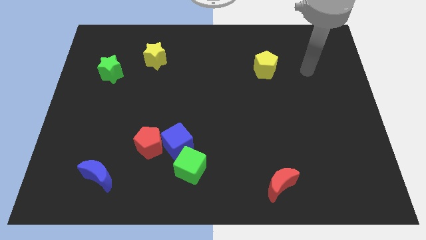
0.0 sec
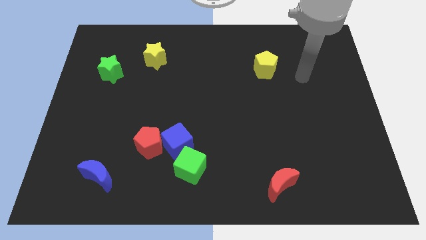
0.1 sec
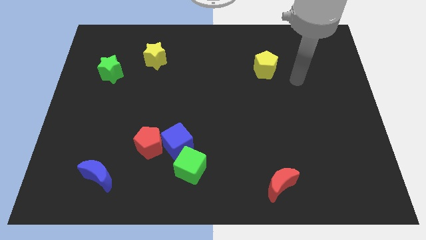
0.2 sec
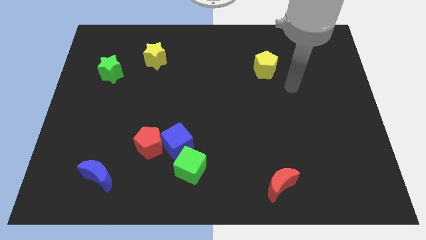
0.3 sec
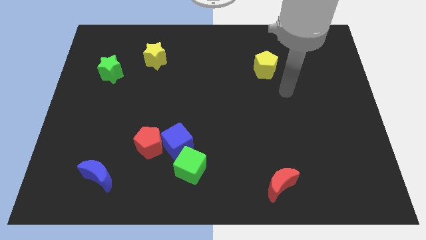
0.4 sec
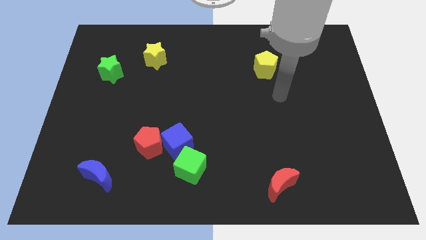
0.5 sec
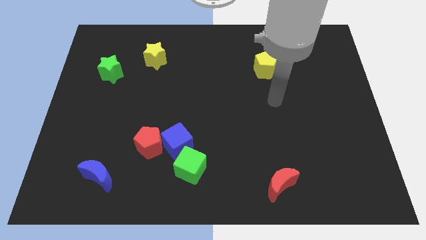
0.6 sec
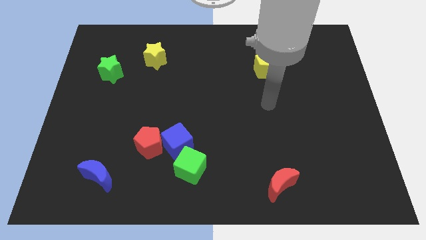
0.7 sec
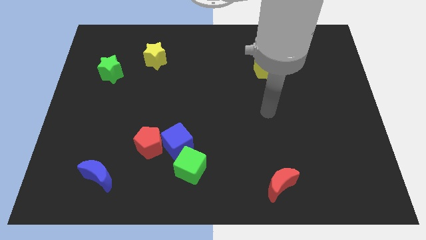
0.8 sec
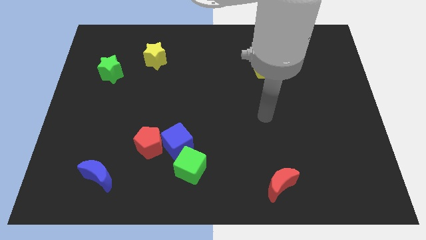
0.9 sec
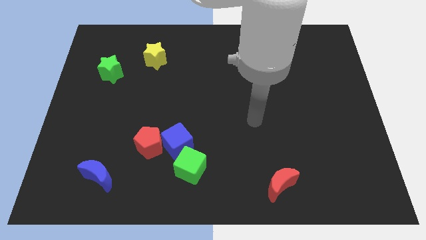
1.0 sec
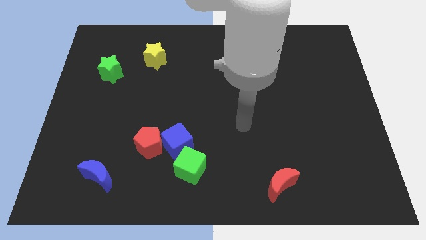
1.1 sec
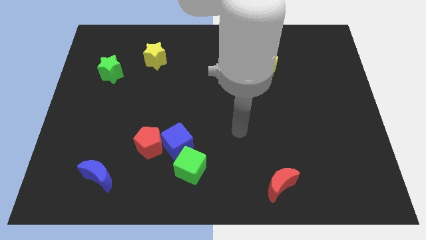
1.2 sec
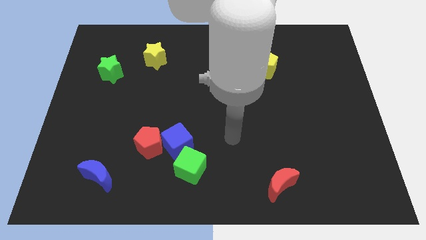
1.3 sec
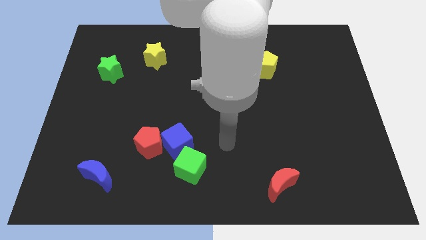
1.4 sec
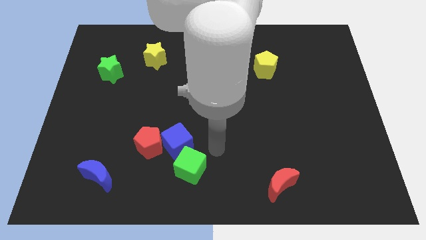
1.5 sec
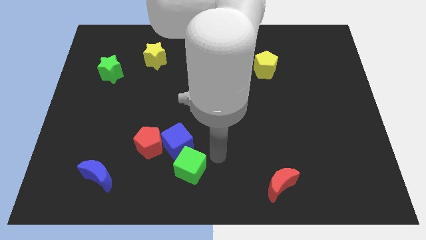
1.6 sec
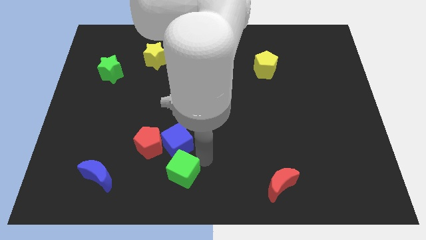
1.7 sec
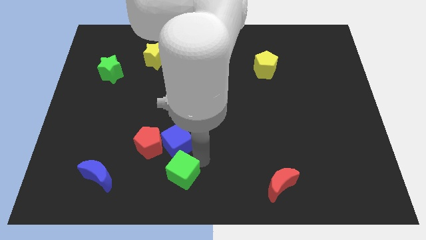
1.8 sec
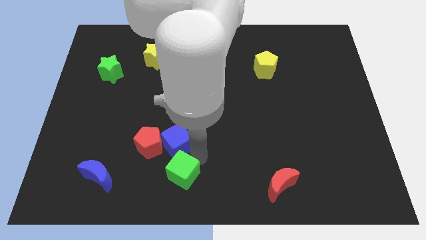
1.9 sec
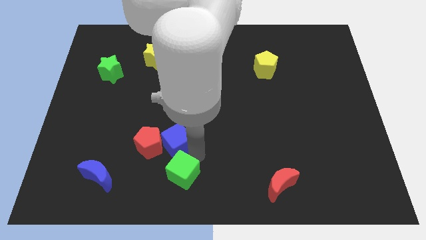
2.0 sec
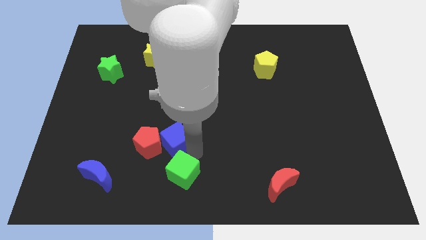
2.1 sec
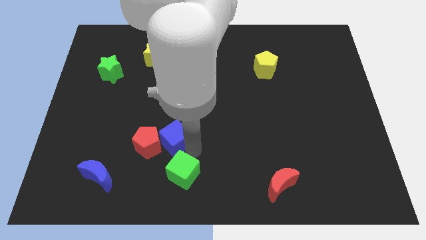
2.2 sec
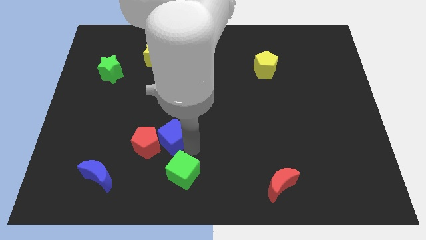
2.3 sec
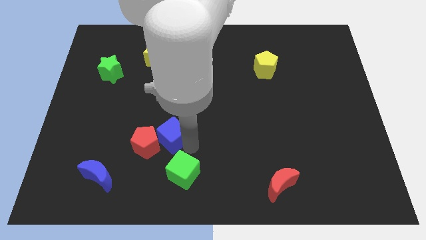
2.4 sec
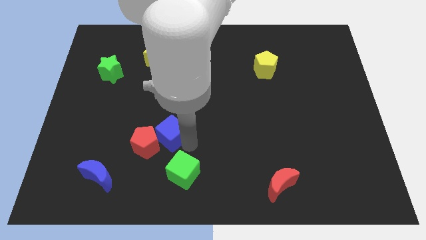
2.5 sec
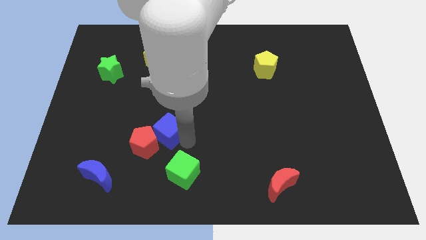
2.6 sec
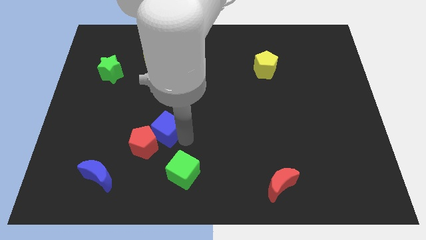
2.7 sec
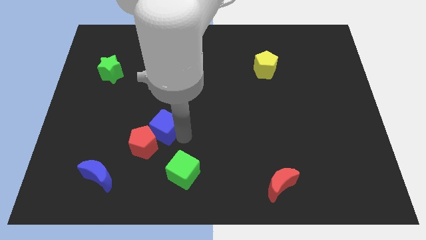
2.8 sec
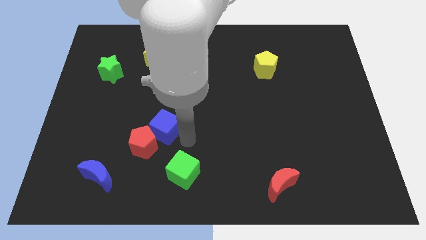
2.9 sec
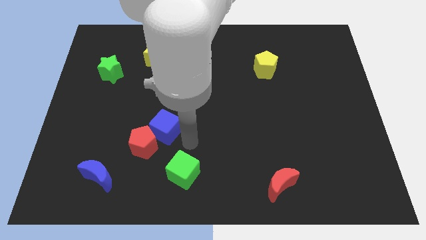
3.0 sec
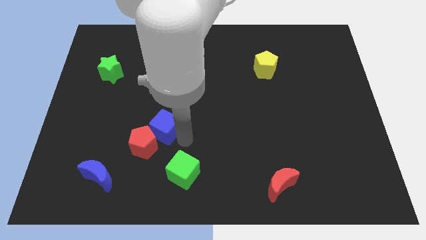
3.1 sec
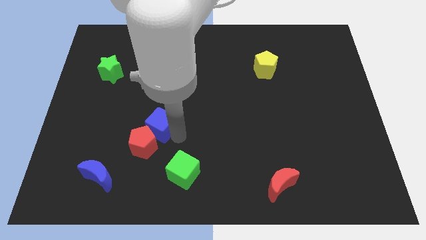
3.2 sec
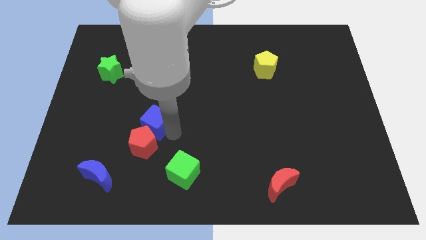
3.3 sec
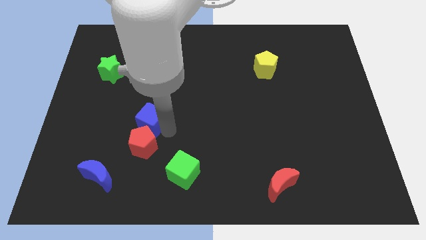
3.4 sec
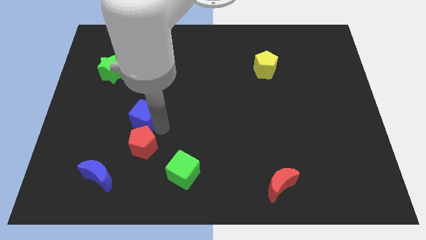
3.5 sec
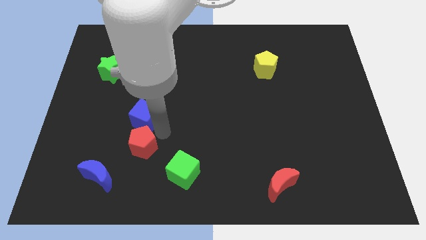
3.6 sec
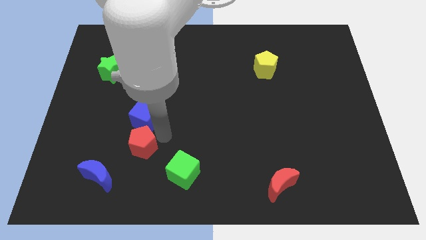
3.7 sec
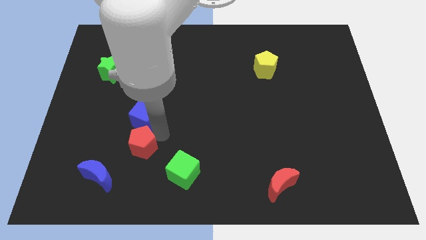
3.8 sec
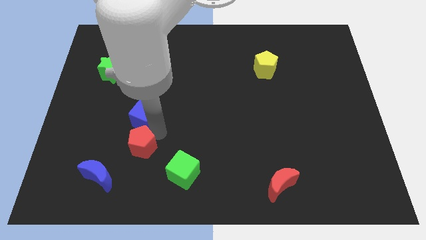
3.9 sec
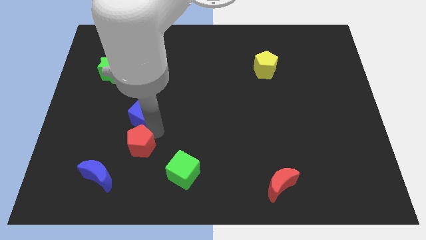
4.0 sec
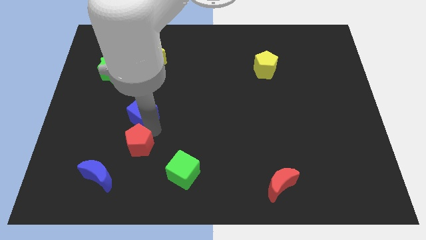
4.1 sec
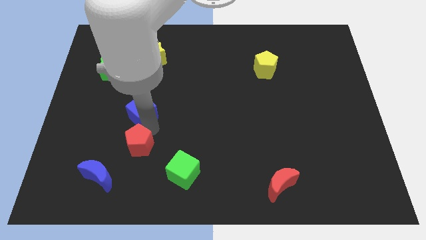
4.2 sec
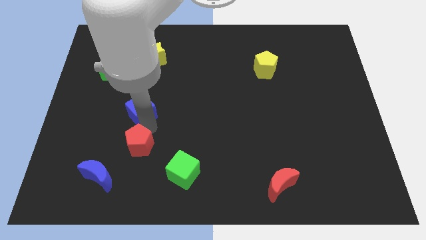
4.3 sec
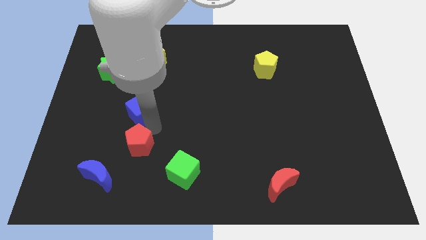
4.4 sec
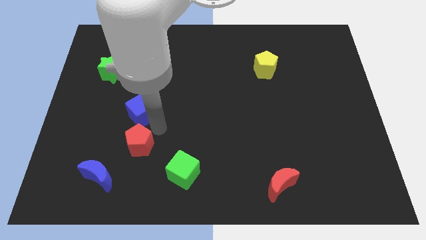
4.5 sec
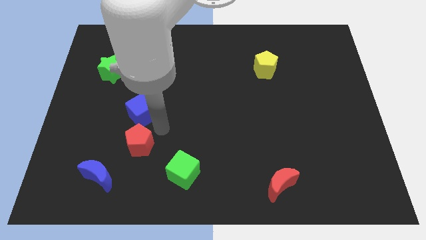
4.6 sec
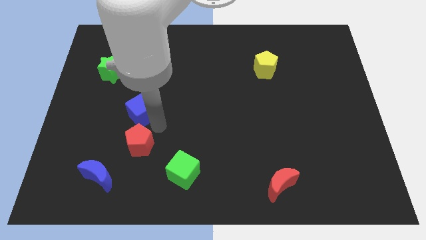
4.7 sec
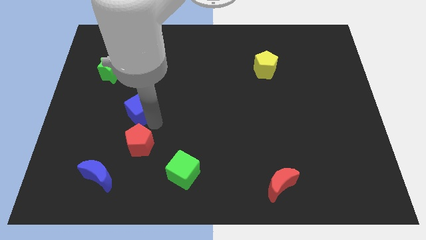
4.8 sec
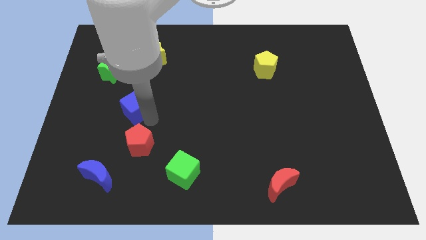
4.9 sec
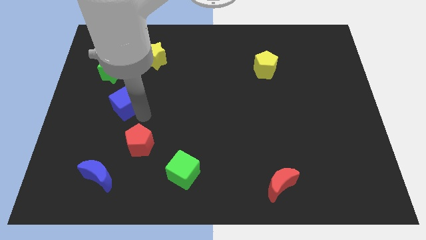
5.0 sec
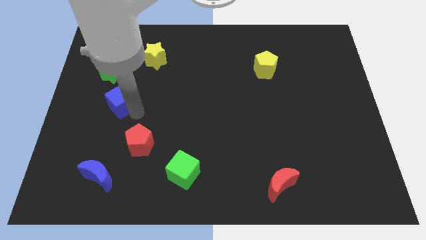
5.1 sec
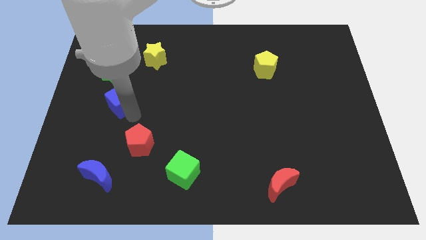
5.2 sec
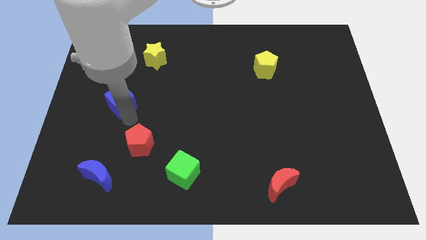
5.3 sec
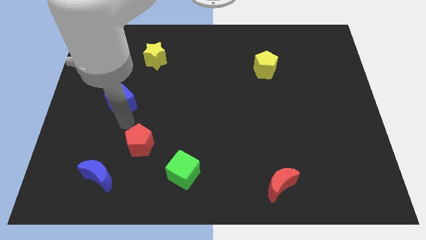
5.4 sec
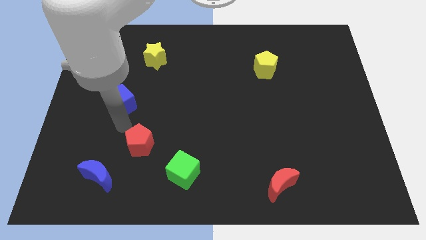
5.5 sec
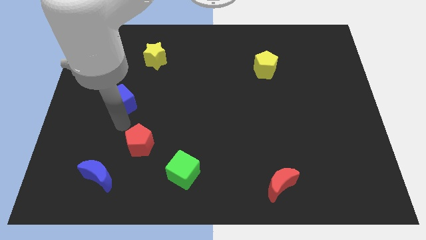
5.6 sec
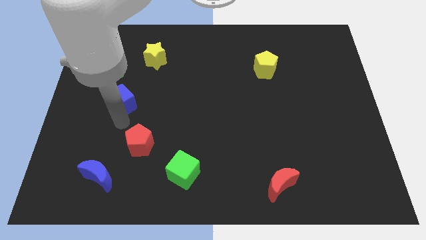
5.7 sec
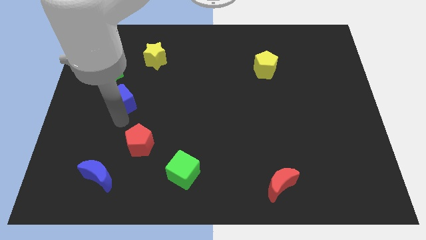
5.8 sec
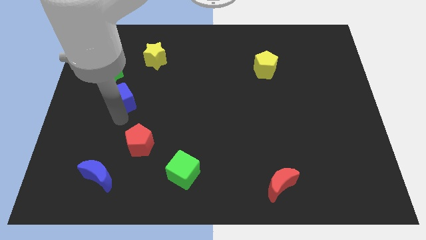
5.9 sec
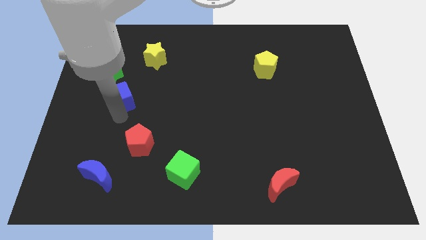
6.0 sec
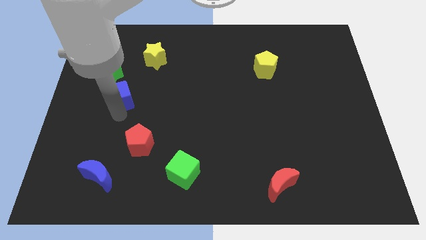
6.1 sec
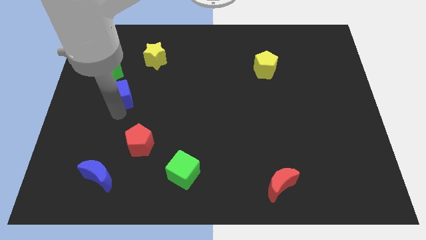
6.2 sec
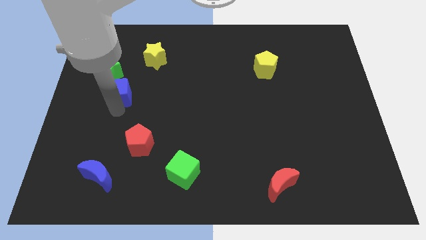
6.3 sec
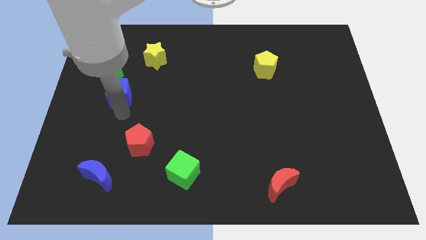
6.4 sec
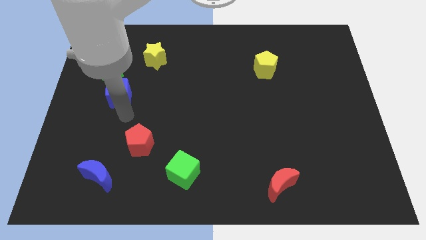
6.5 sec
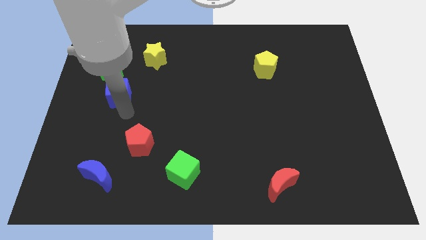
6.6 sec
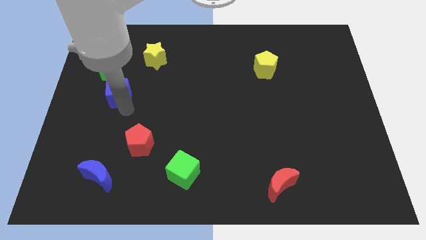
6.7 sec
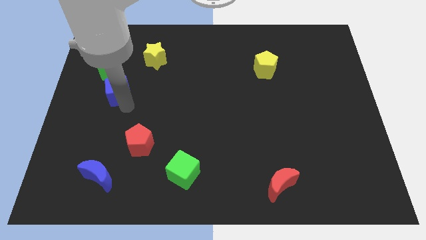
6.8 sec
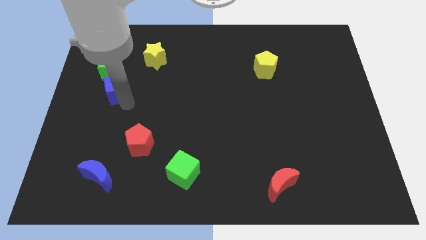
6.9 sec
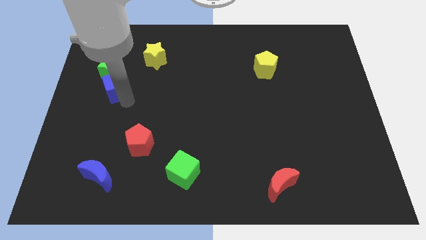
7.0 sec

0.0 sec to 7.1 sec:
move the blue cube next to the green star
